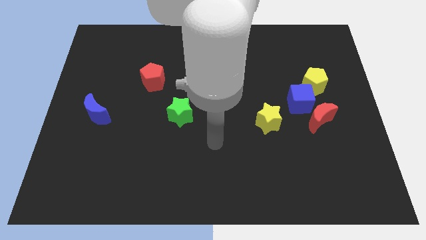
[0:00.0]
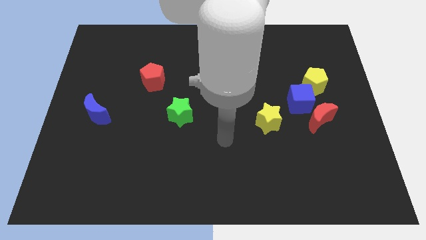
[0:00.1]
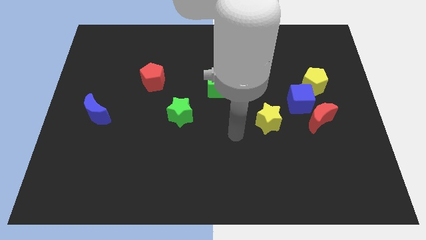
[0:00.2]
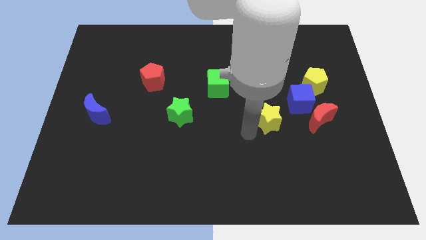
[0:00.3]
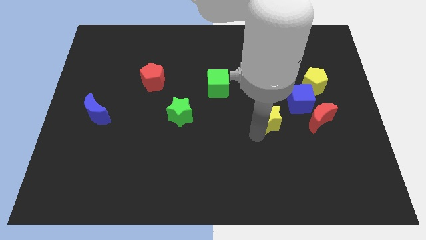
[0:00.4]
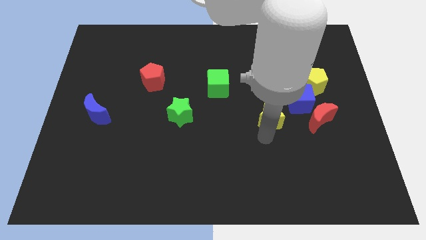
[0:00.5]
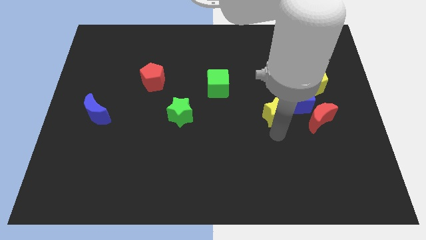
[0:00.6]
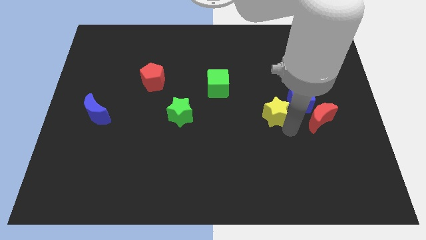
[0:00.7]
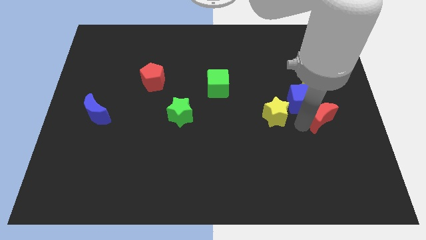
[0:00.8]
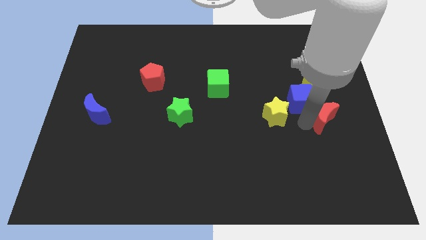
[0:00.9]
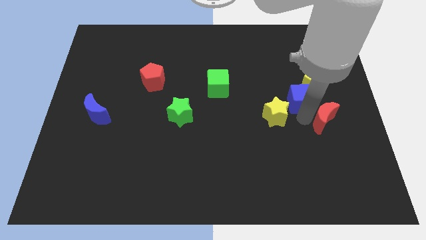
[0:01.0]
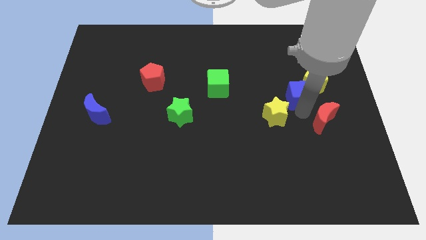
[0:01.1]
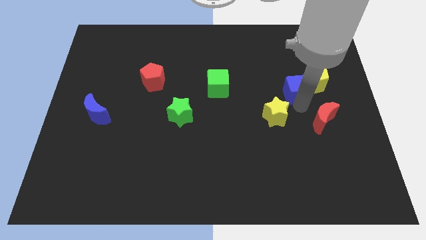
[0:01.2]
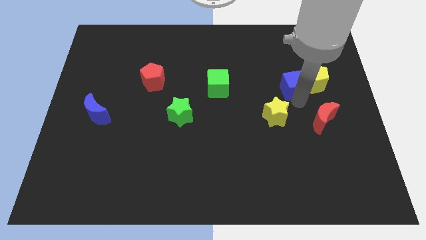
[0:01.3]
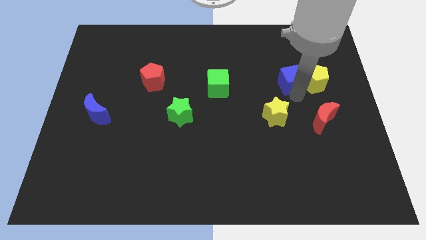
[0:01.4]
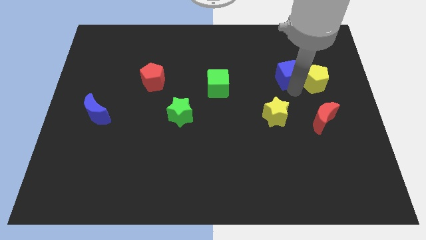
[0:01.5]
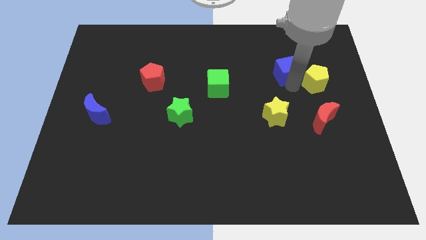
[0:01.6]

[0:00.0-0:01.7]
move the blue cube away from the red moon, yellow pentagon, and yellow star

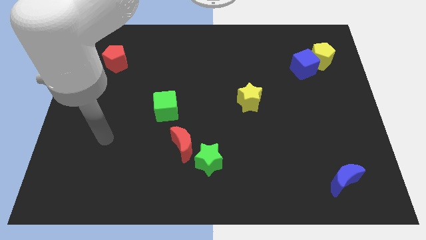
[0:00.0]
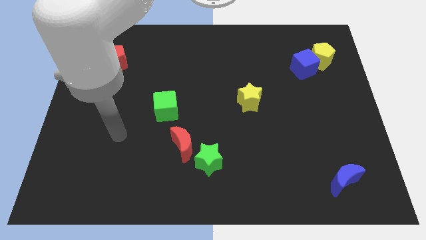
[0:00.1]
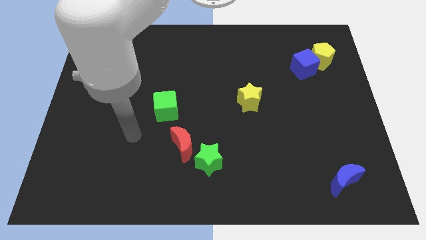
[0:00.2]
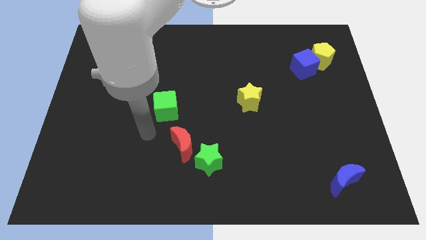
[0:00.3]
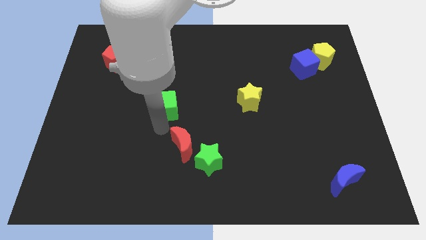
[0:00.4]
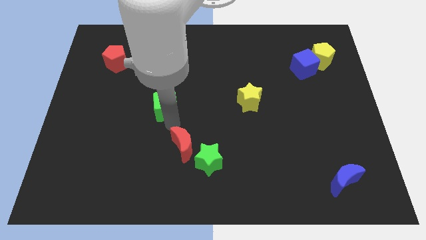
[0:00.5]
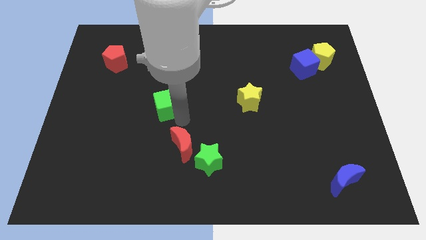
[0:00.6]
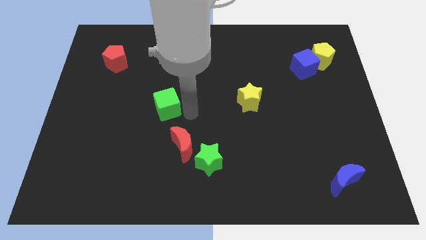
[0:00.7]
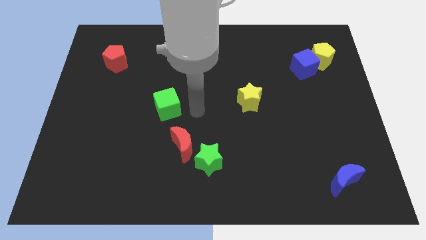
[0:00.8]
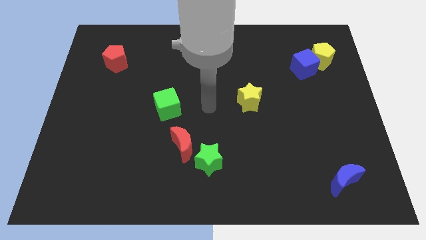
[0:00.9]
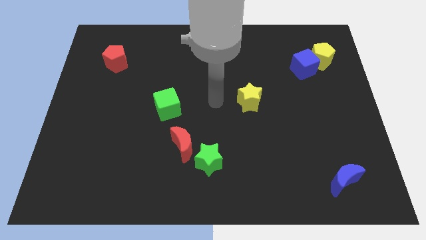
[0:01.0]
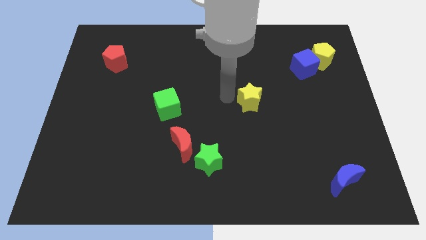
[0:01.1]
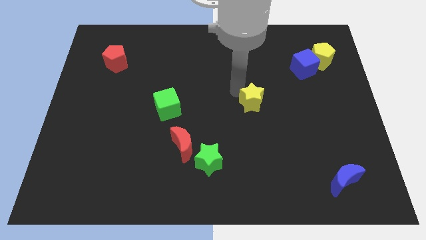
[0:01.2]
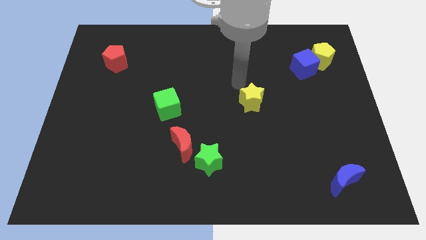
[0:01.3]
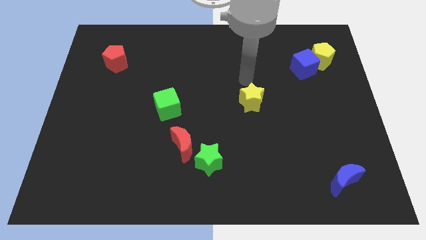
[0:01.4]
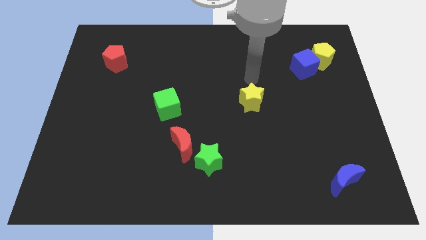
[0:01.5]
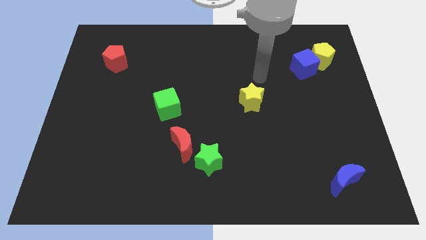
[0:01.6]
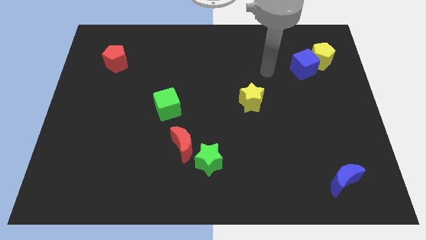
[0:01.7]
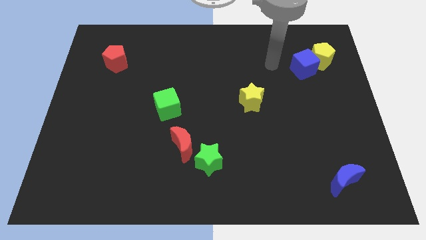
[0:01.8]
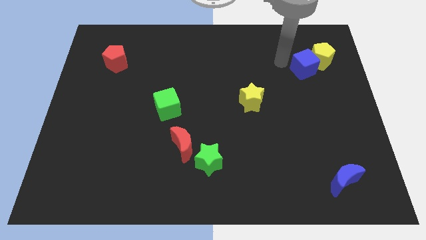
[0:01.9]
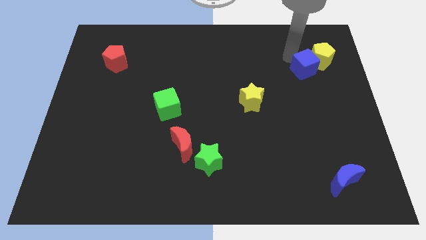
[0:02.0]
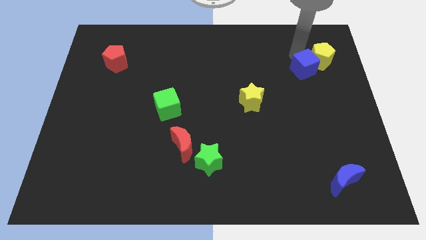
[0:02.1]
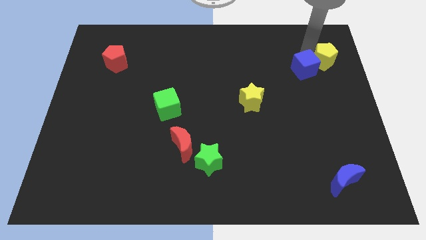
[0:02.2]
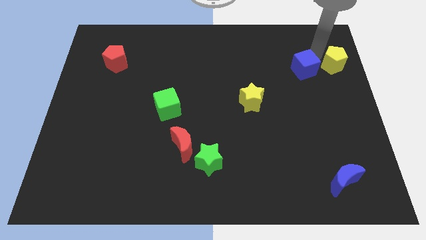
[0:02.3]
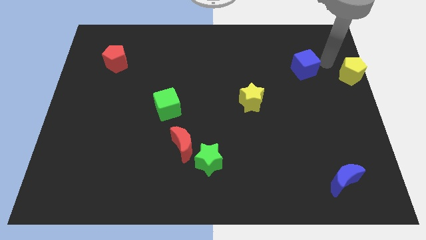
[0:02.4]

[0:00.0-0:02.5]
pull the blue cube apart from the yellow pentagon

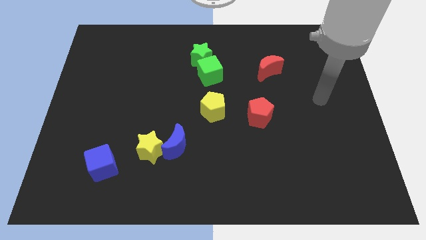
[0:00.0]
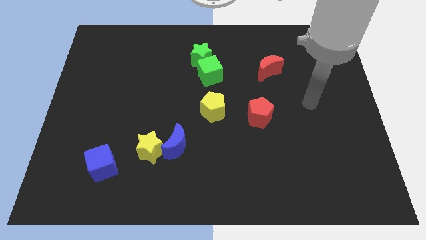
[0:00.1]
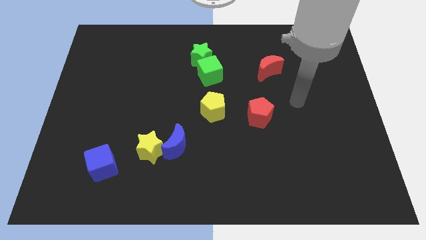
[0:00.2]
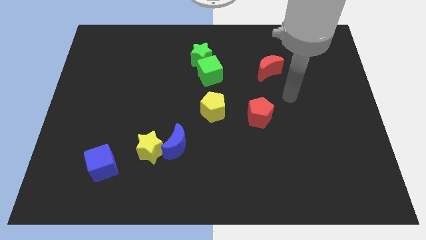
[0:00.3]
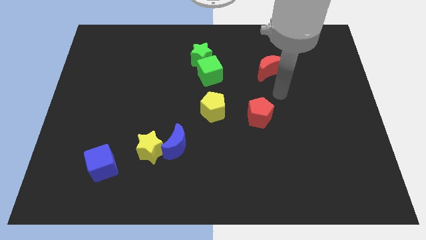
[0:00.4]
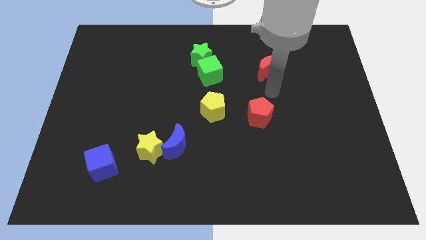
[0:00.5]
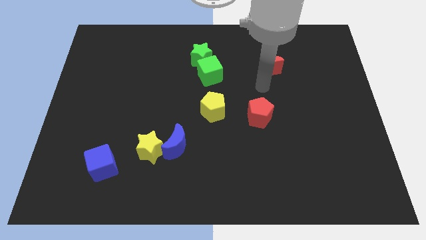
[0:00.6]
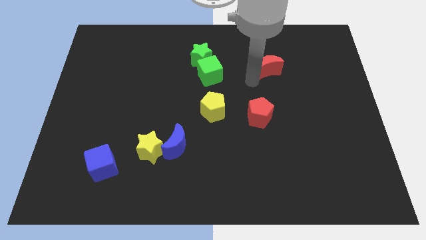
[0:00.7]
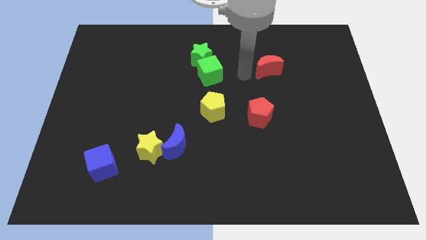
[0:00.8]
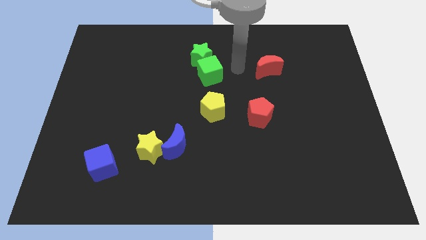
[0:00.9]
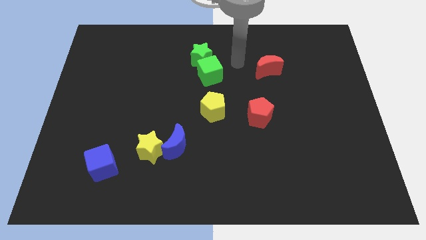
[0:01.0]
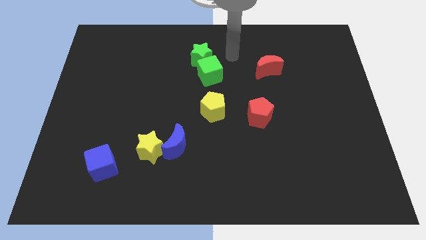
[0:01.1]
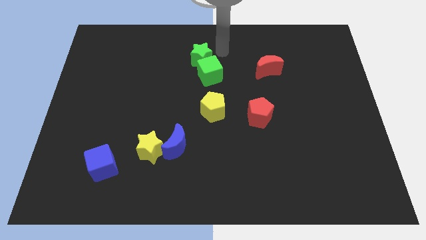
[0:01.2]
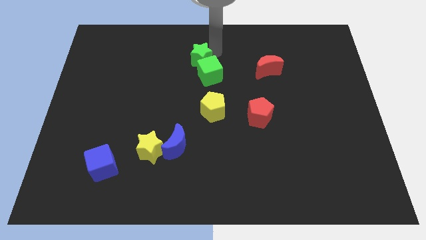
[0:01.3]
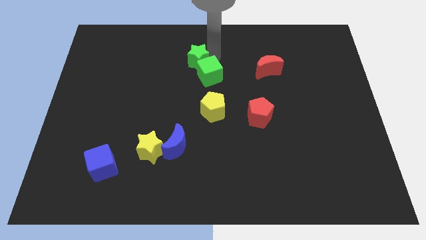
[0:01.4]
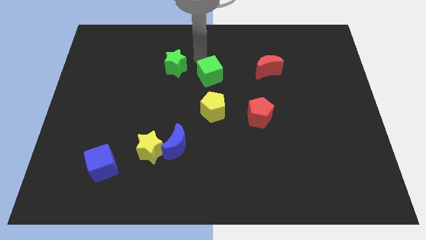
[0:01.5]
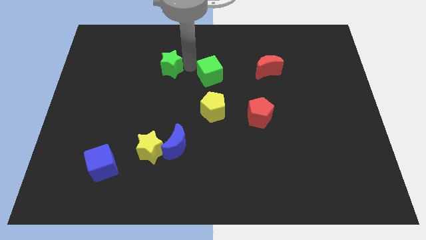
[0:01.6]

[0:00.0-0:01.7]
move the green cube away from the green star

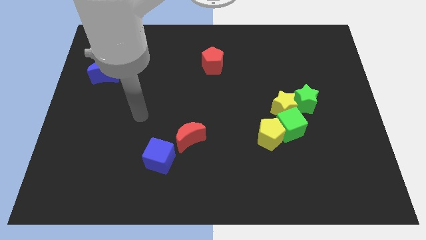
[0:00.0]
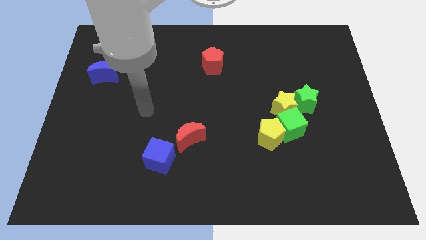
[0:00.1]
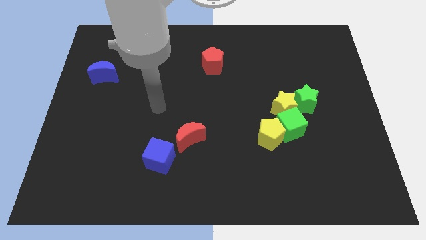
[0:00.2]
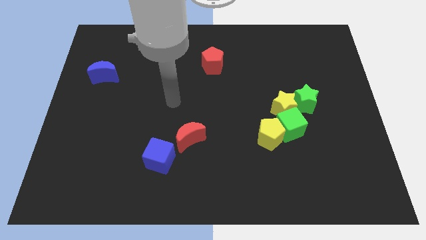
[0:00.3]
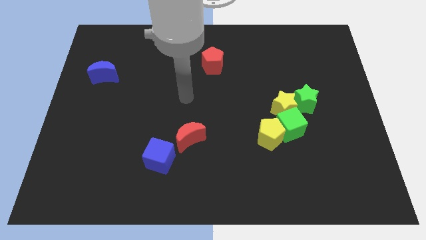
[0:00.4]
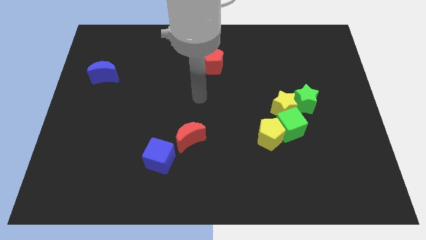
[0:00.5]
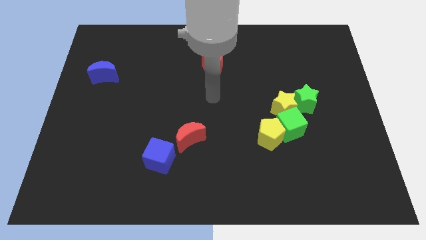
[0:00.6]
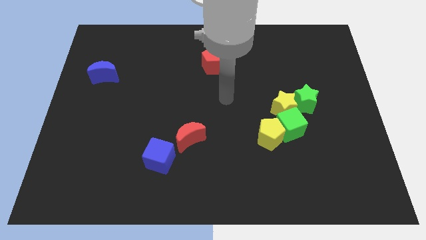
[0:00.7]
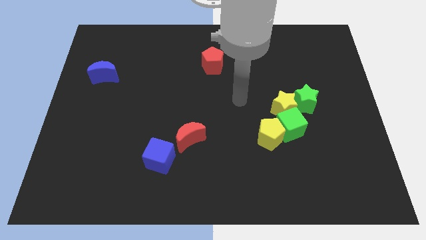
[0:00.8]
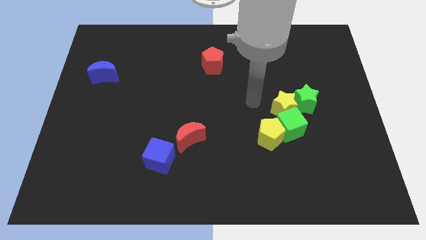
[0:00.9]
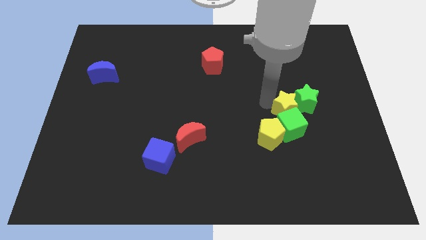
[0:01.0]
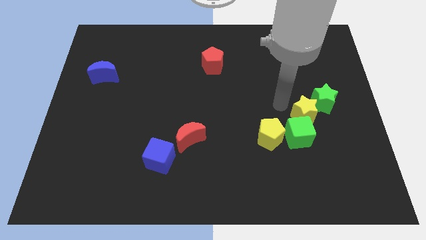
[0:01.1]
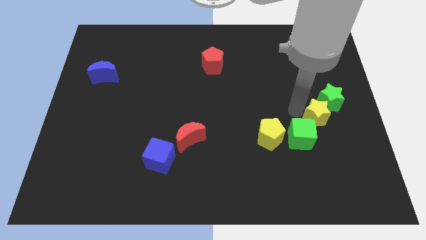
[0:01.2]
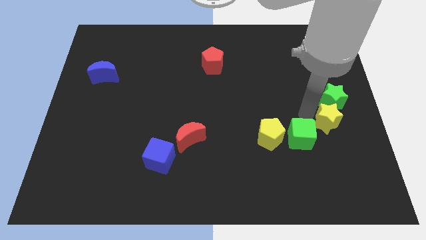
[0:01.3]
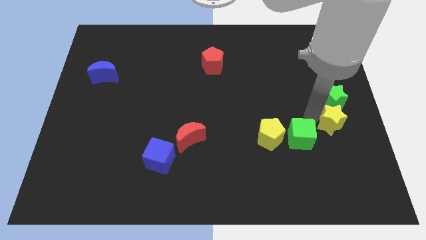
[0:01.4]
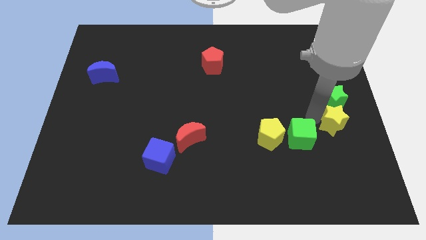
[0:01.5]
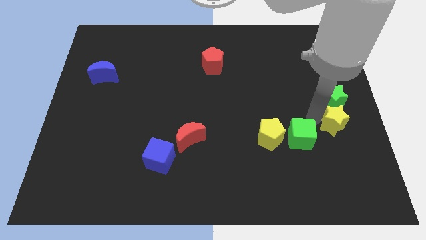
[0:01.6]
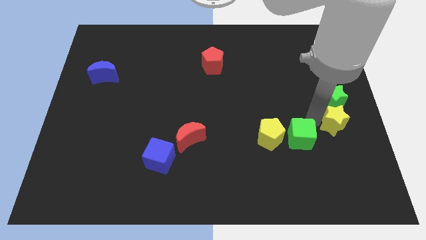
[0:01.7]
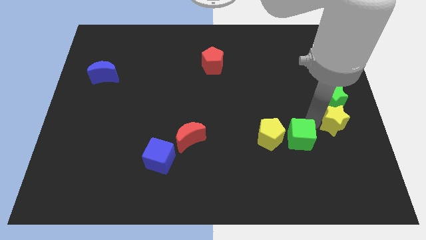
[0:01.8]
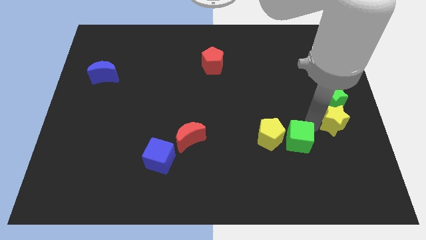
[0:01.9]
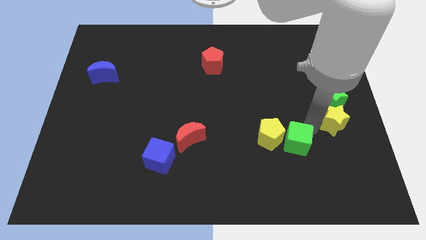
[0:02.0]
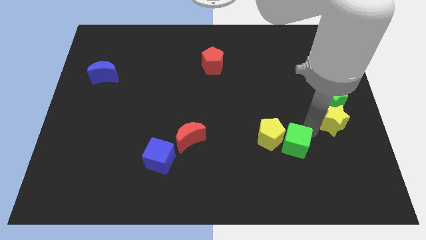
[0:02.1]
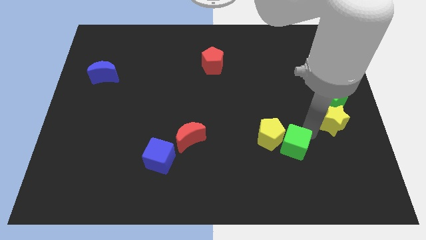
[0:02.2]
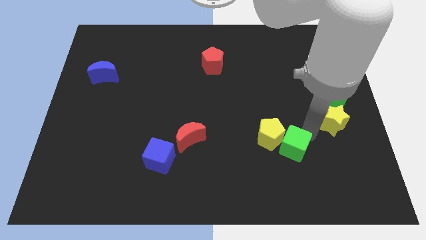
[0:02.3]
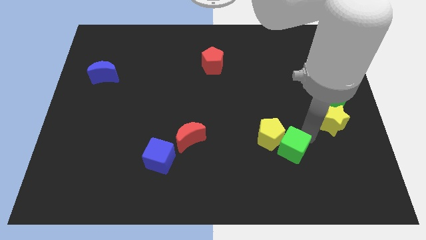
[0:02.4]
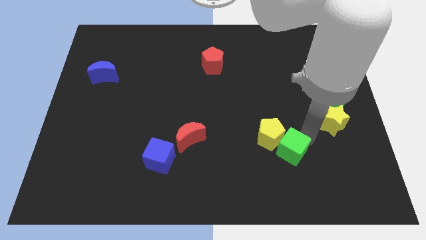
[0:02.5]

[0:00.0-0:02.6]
separate the green cube from the yellow pentagon, yellow star, and green star

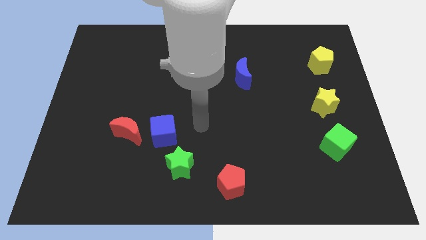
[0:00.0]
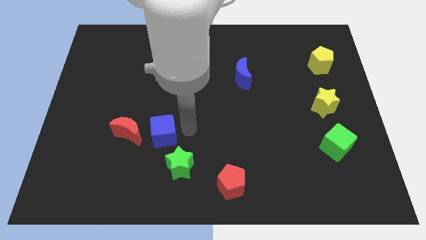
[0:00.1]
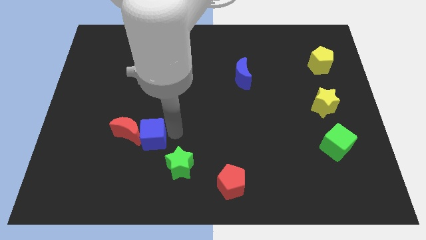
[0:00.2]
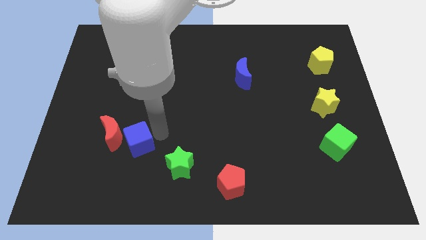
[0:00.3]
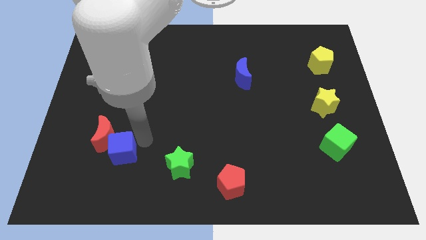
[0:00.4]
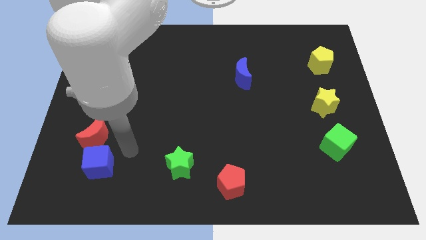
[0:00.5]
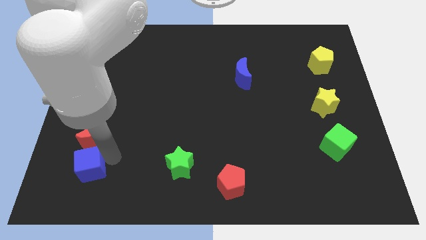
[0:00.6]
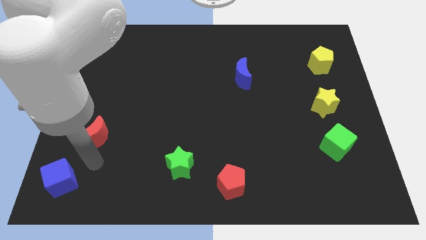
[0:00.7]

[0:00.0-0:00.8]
separate the red moon from the blue cube

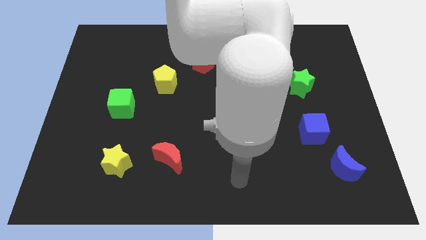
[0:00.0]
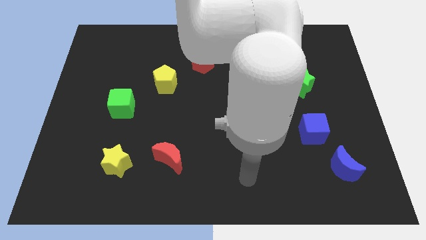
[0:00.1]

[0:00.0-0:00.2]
pull the blue moon apart from the blue cube
